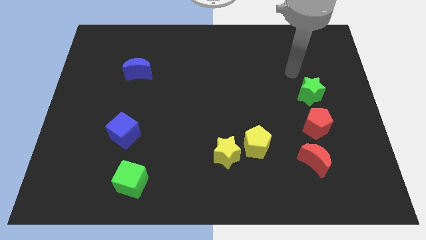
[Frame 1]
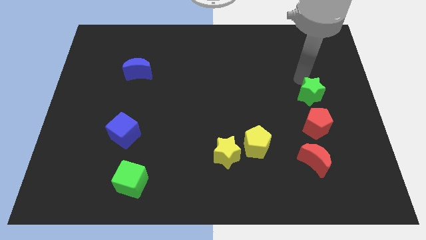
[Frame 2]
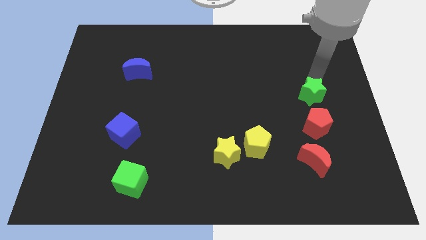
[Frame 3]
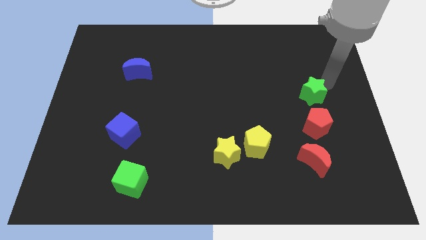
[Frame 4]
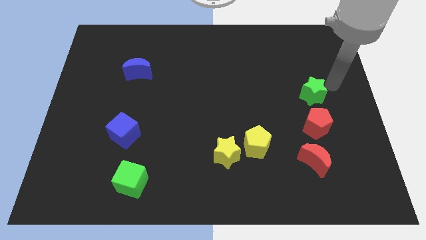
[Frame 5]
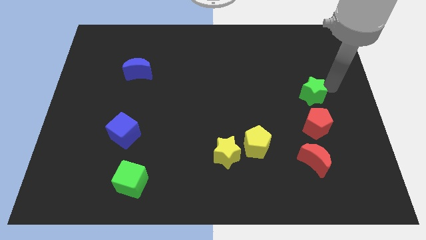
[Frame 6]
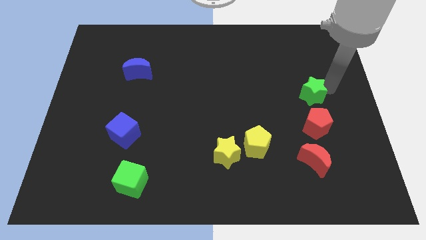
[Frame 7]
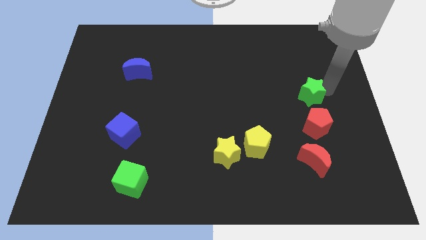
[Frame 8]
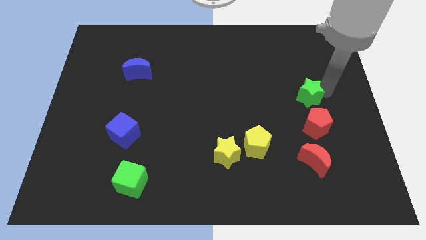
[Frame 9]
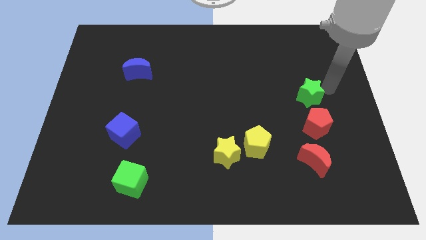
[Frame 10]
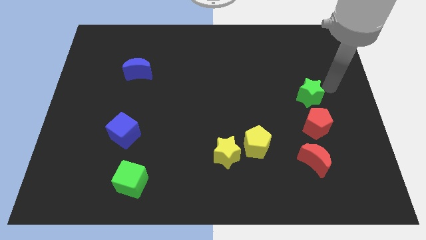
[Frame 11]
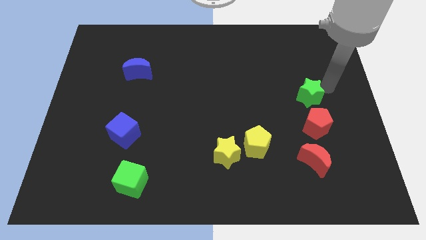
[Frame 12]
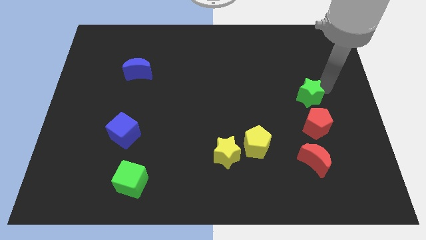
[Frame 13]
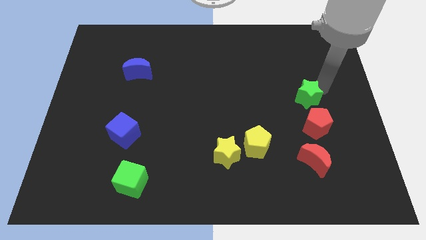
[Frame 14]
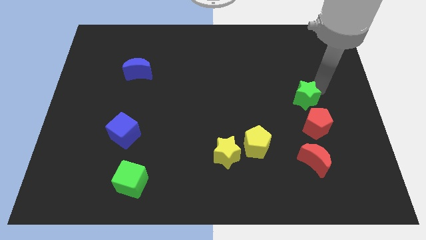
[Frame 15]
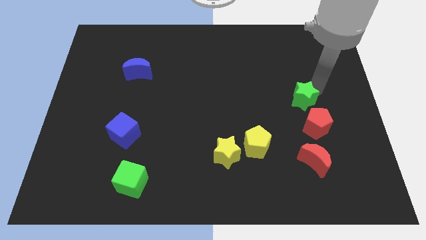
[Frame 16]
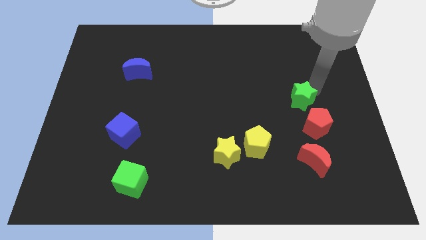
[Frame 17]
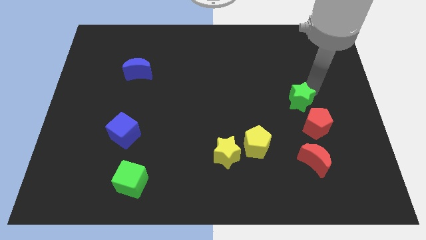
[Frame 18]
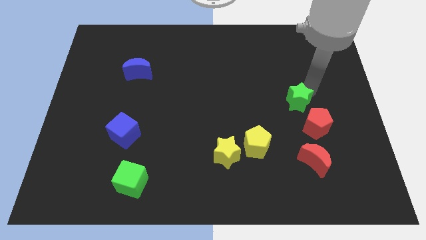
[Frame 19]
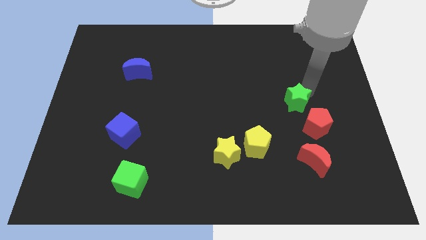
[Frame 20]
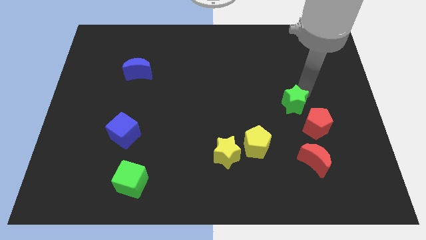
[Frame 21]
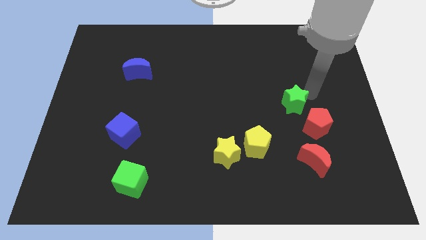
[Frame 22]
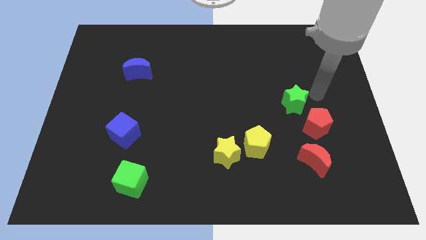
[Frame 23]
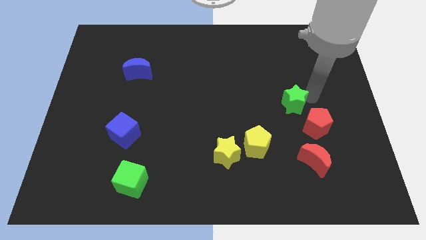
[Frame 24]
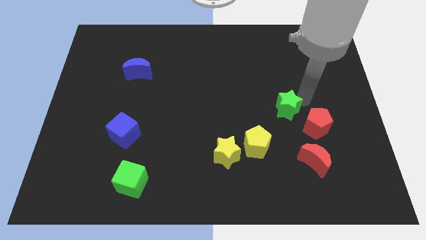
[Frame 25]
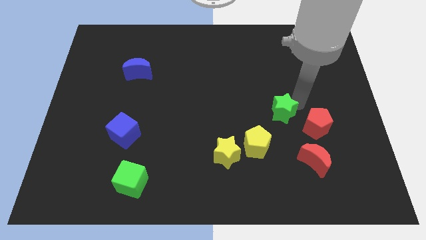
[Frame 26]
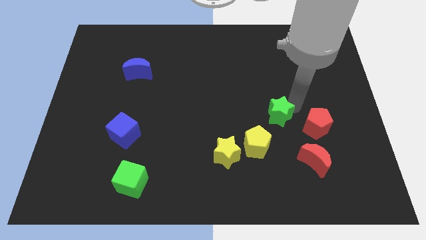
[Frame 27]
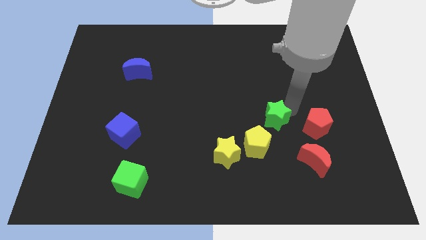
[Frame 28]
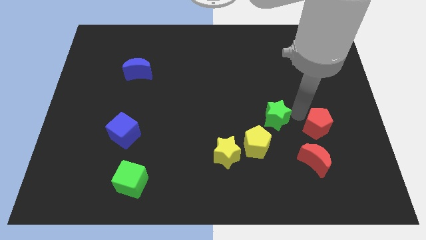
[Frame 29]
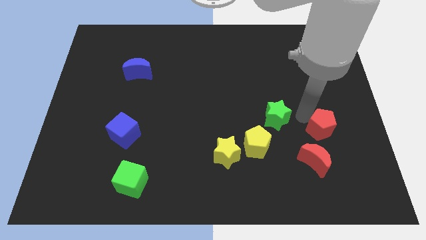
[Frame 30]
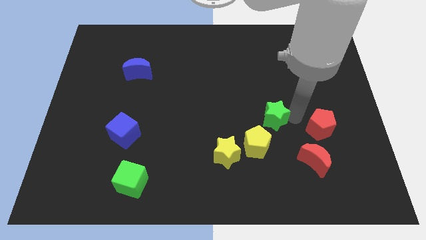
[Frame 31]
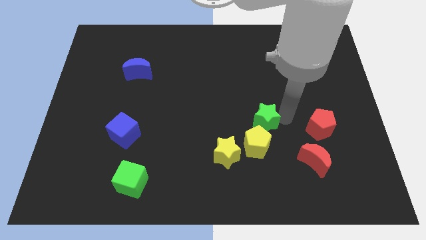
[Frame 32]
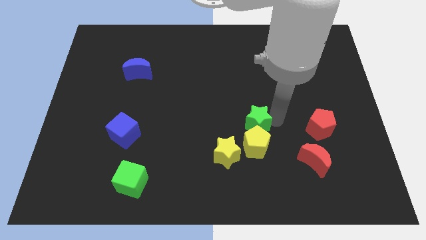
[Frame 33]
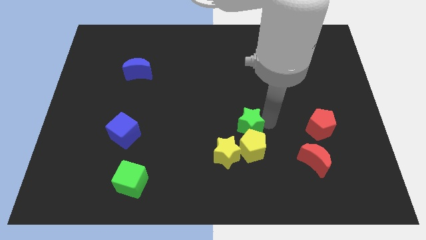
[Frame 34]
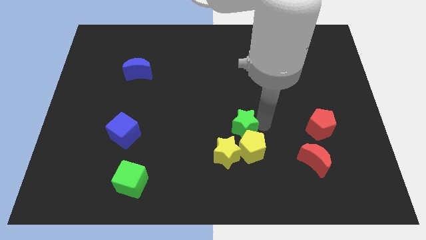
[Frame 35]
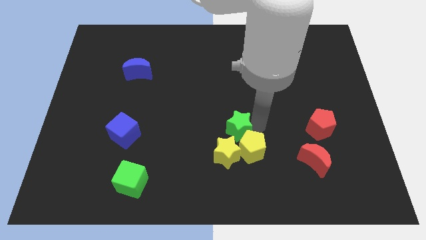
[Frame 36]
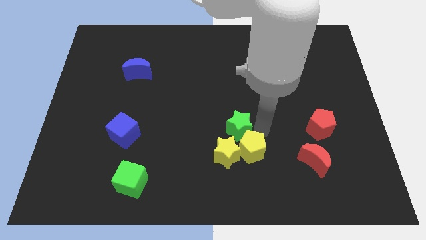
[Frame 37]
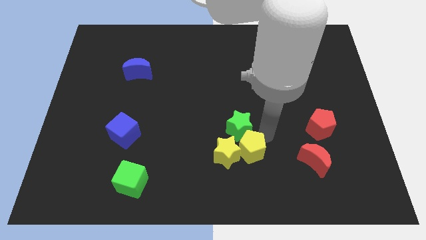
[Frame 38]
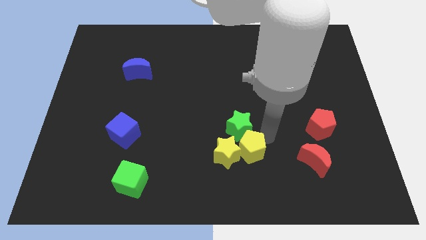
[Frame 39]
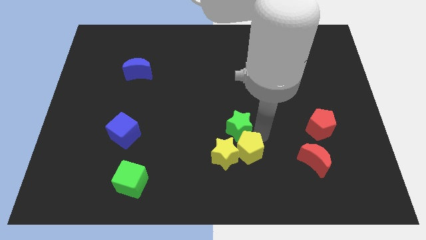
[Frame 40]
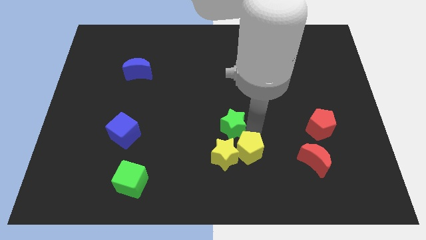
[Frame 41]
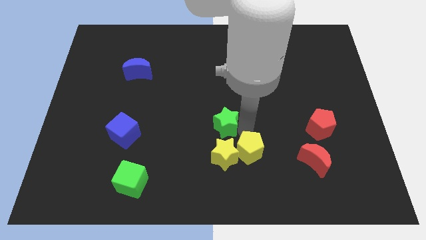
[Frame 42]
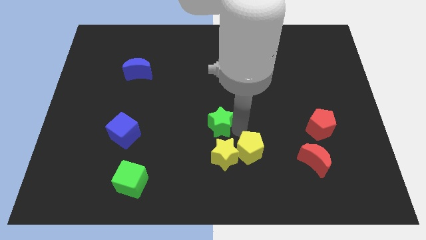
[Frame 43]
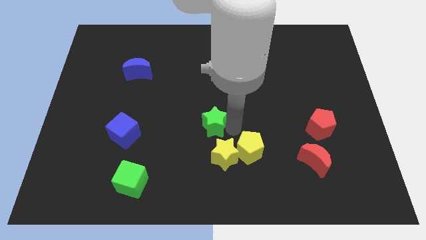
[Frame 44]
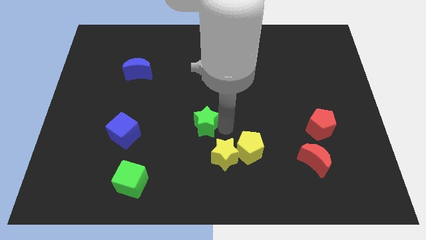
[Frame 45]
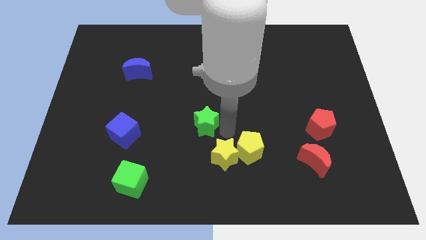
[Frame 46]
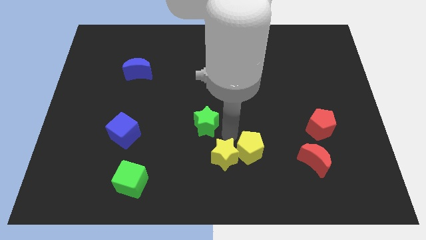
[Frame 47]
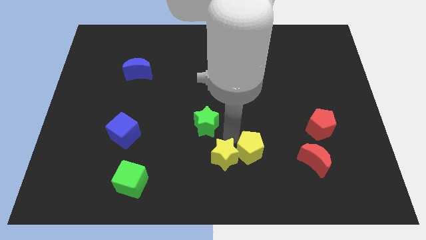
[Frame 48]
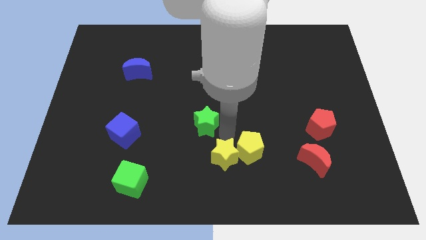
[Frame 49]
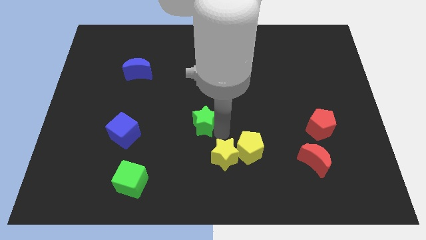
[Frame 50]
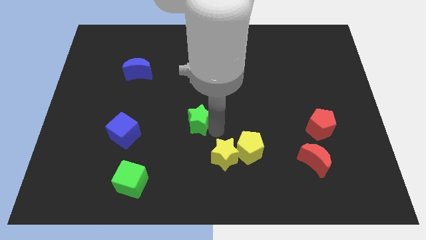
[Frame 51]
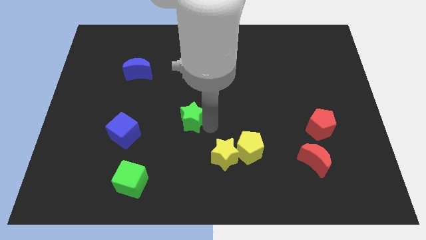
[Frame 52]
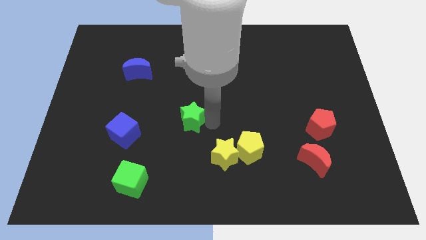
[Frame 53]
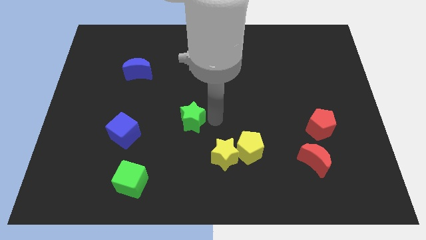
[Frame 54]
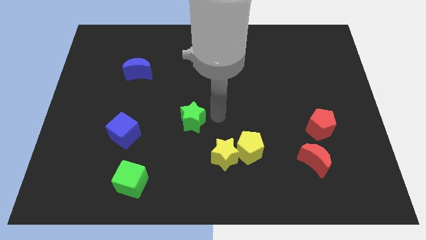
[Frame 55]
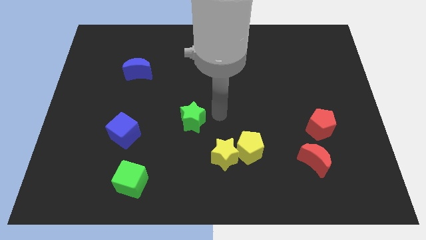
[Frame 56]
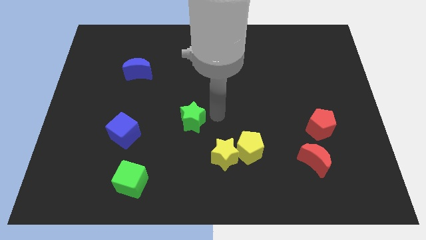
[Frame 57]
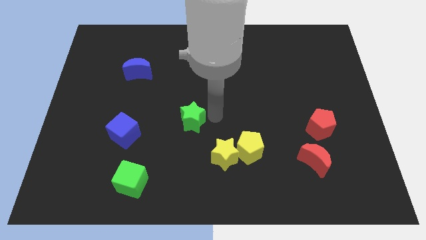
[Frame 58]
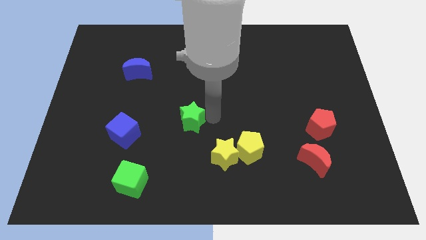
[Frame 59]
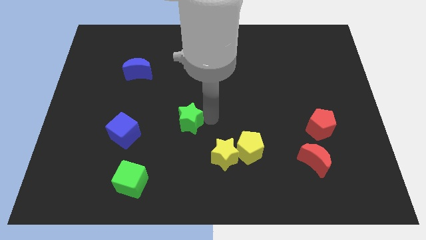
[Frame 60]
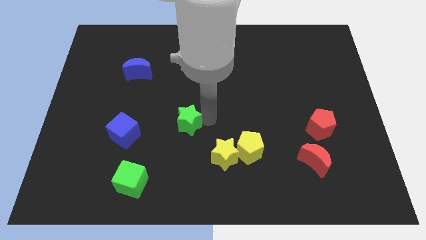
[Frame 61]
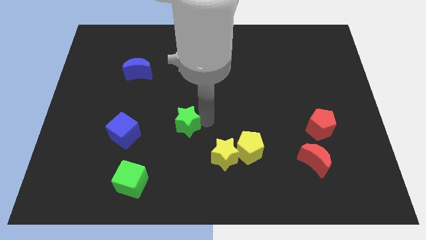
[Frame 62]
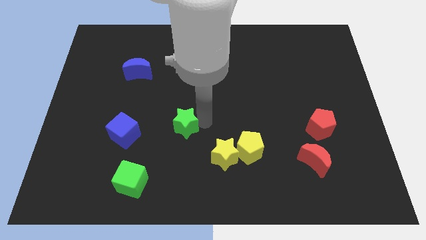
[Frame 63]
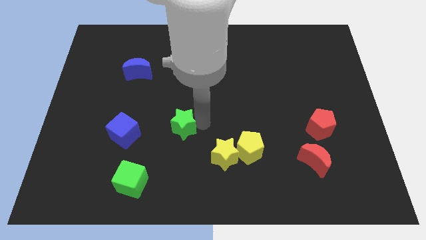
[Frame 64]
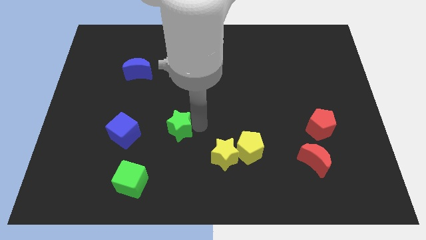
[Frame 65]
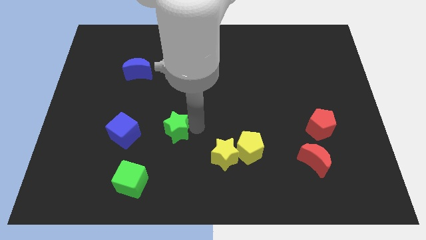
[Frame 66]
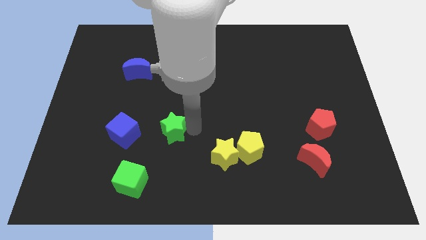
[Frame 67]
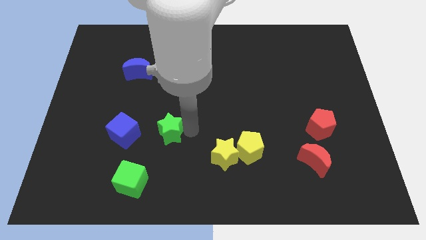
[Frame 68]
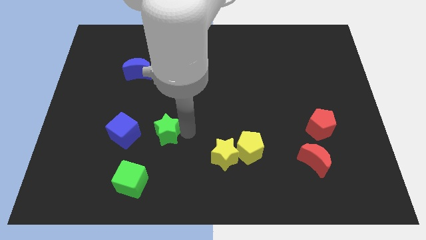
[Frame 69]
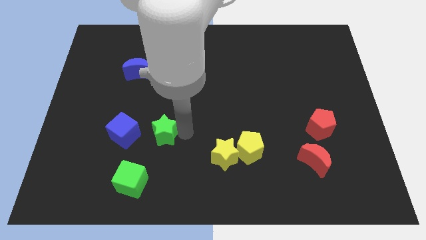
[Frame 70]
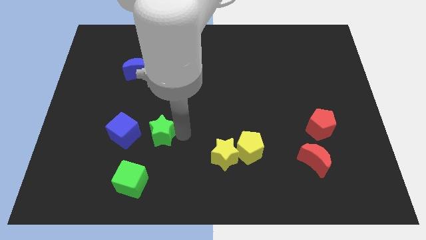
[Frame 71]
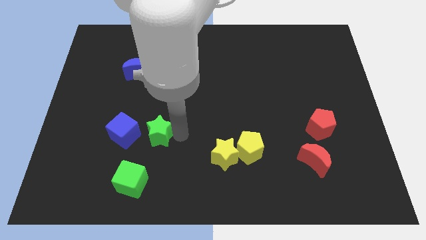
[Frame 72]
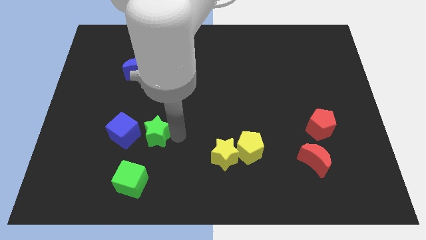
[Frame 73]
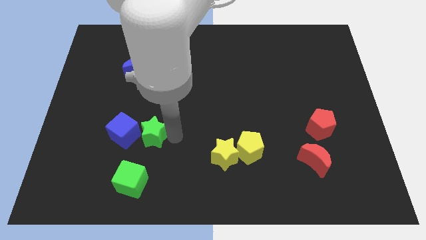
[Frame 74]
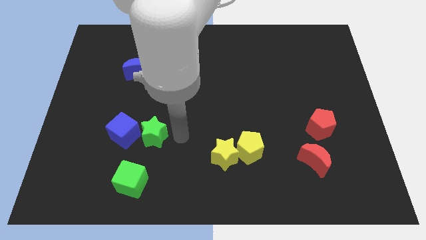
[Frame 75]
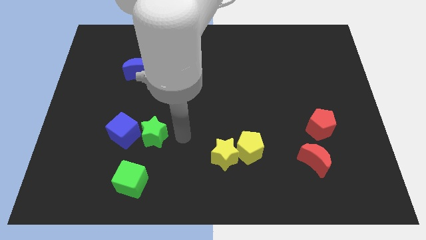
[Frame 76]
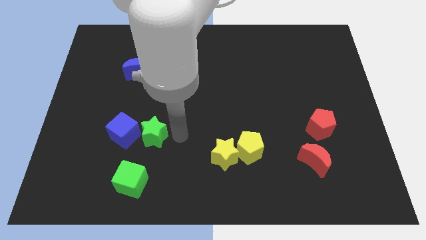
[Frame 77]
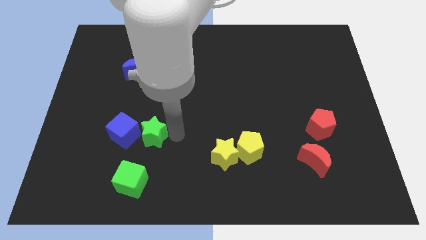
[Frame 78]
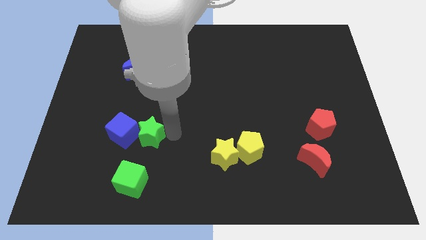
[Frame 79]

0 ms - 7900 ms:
put the green star next to the blue cube
